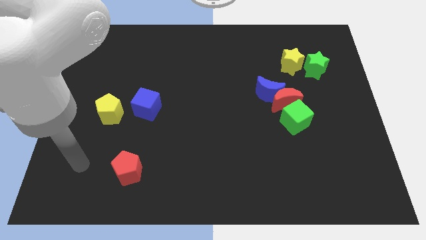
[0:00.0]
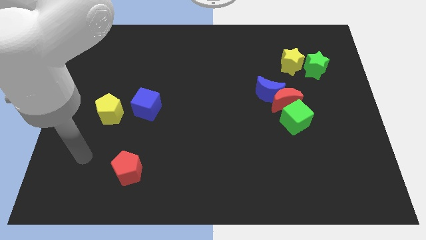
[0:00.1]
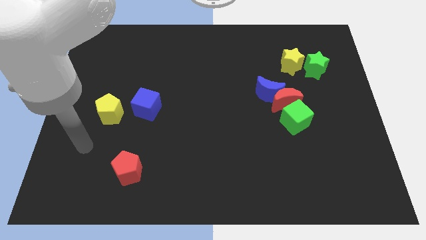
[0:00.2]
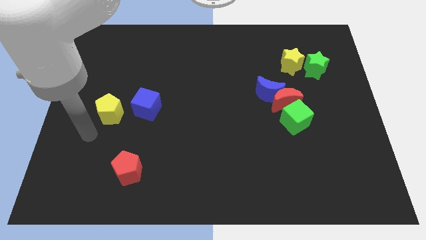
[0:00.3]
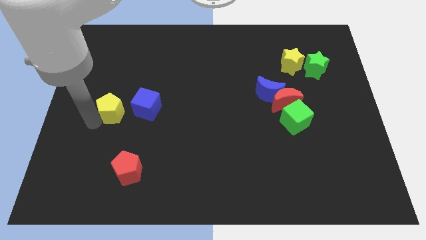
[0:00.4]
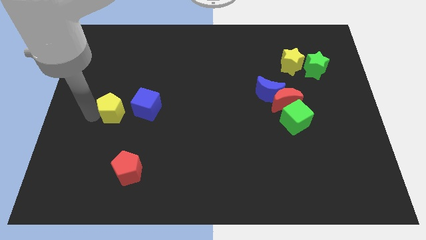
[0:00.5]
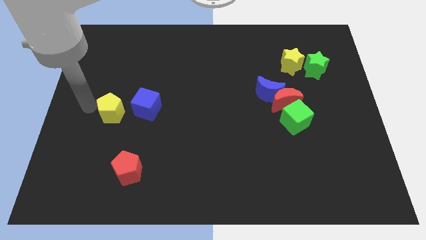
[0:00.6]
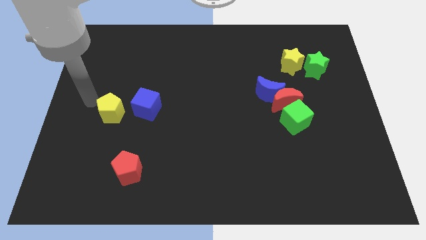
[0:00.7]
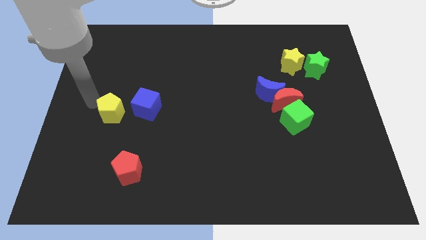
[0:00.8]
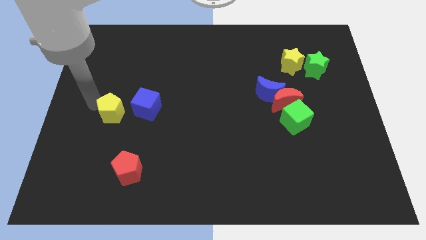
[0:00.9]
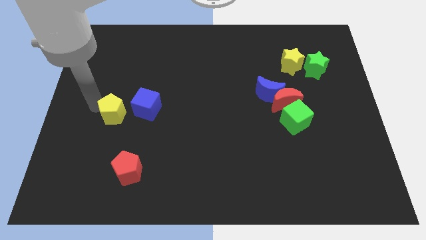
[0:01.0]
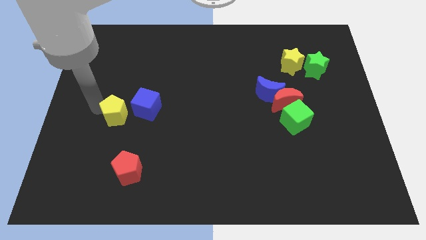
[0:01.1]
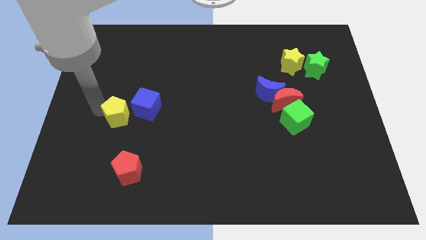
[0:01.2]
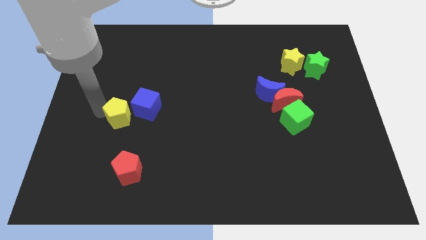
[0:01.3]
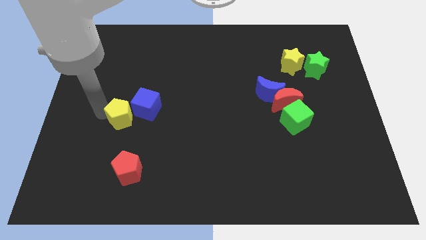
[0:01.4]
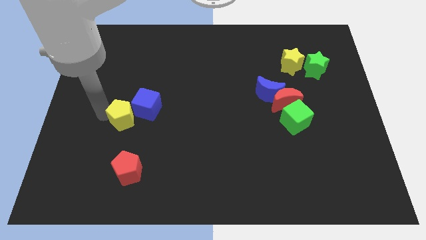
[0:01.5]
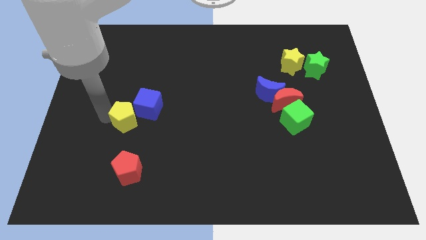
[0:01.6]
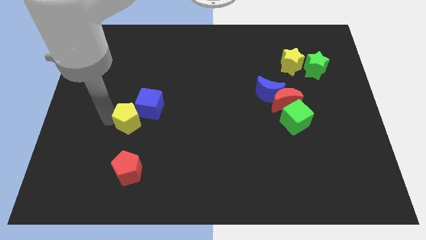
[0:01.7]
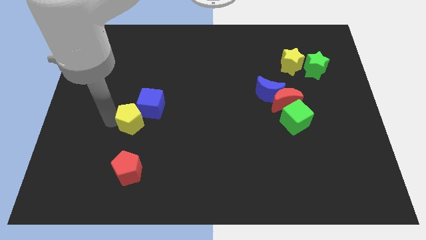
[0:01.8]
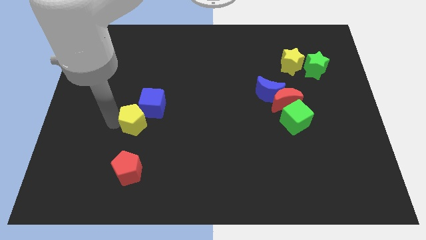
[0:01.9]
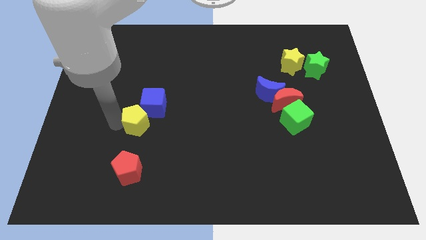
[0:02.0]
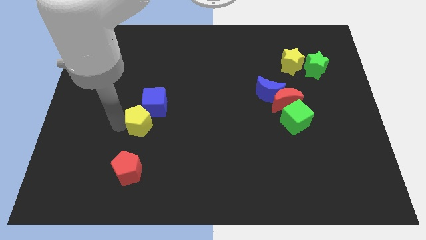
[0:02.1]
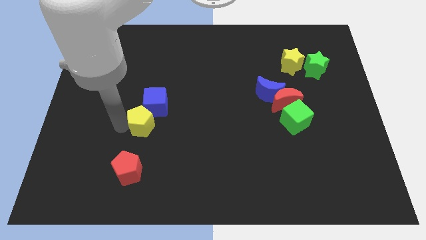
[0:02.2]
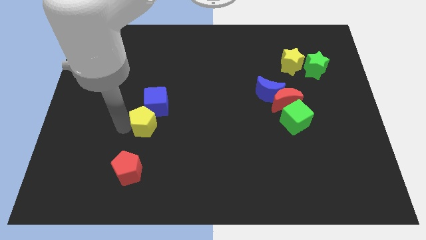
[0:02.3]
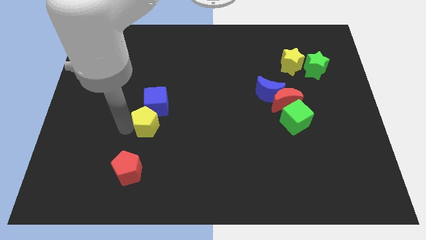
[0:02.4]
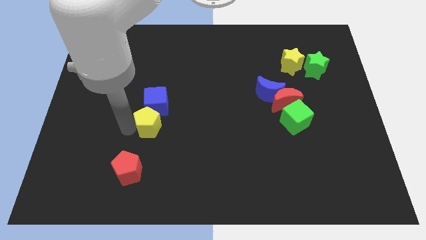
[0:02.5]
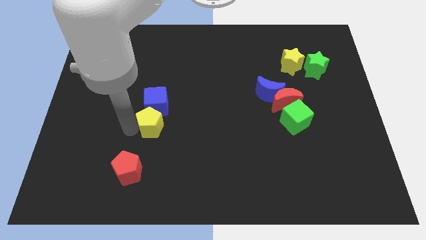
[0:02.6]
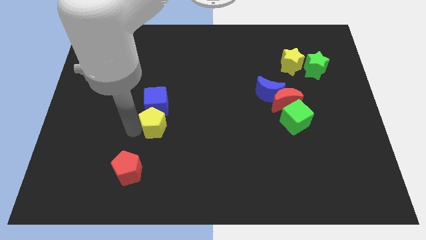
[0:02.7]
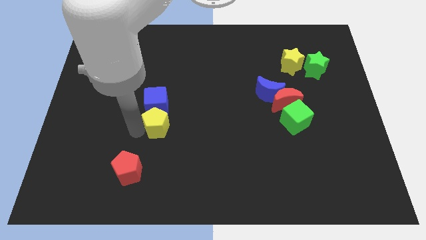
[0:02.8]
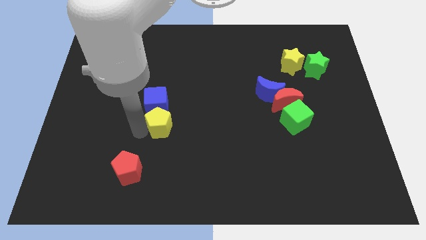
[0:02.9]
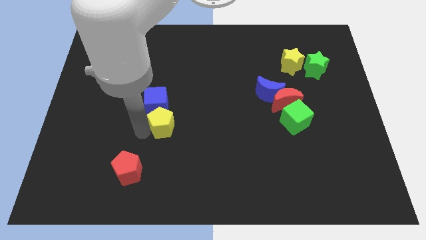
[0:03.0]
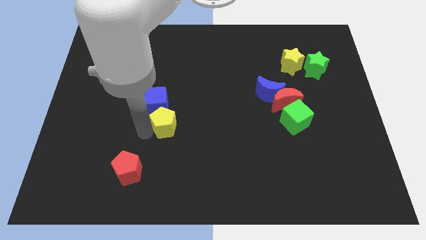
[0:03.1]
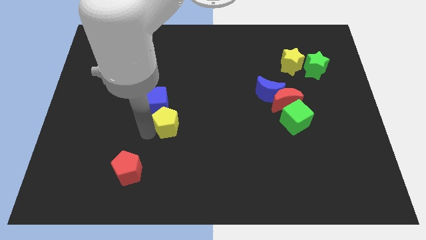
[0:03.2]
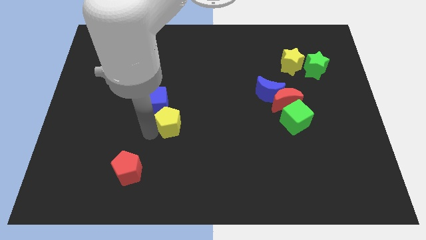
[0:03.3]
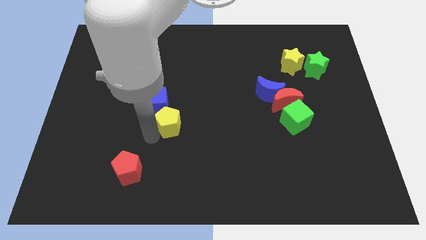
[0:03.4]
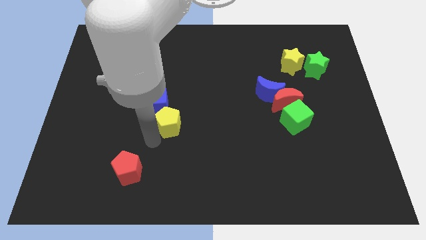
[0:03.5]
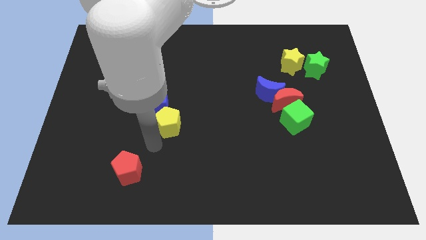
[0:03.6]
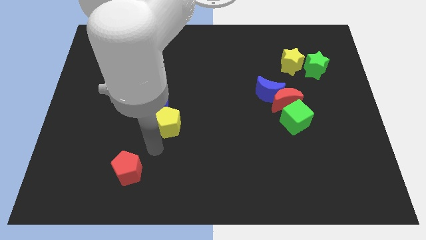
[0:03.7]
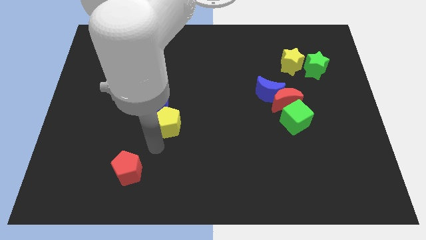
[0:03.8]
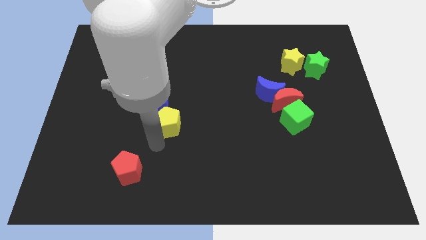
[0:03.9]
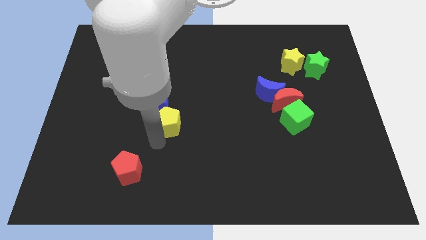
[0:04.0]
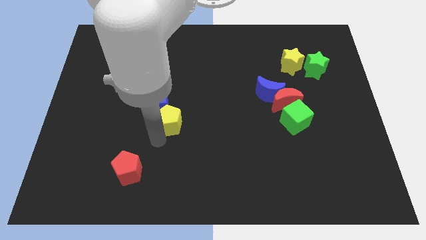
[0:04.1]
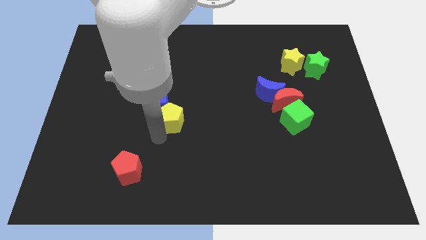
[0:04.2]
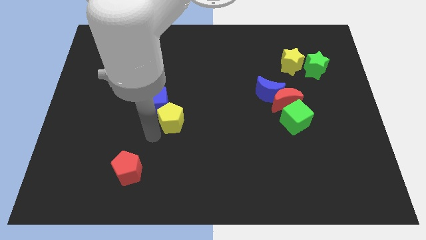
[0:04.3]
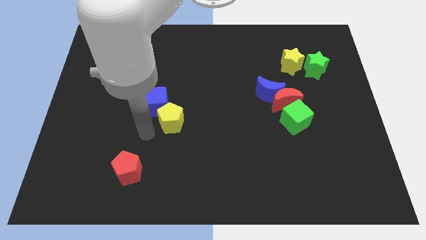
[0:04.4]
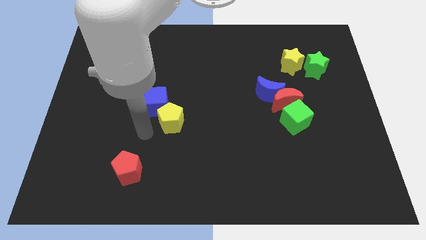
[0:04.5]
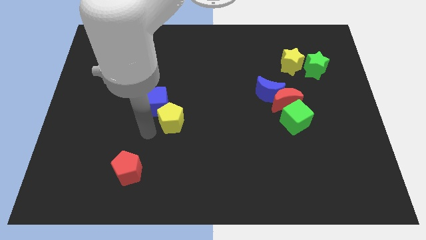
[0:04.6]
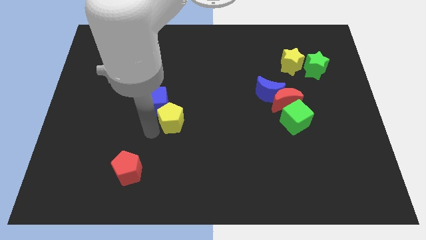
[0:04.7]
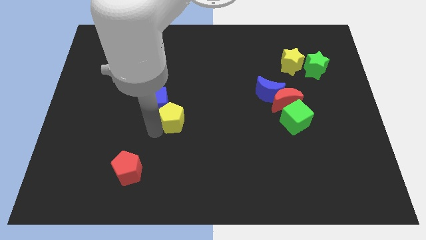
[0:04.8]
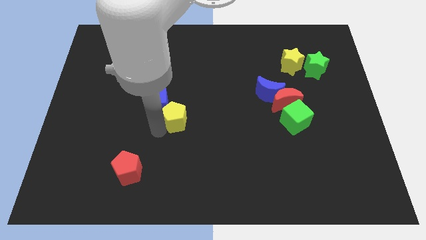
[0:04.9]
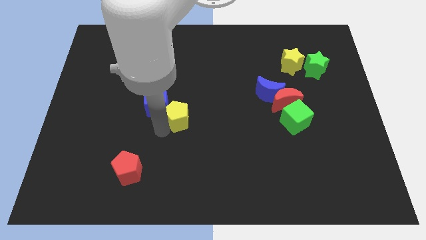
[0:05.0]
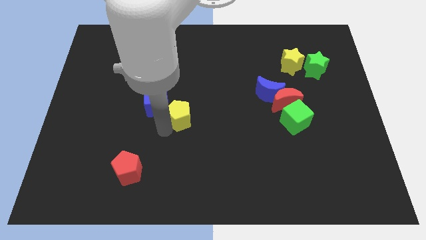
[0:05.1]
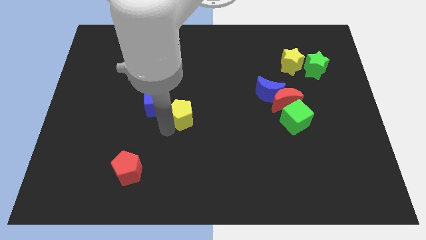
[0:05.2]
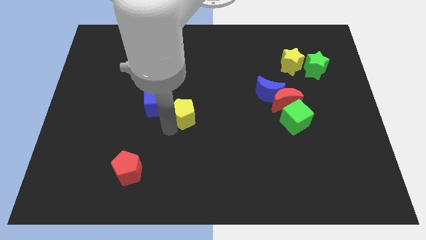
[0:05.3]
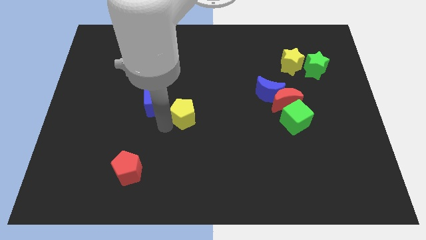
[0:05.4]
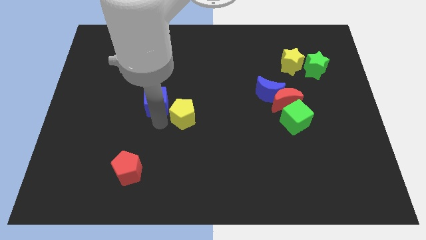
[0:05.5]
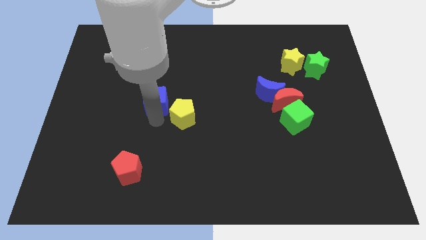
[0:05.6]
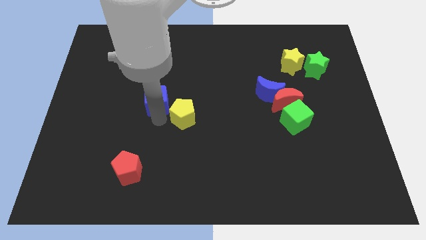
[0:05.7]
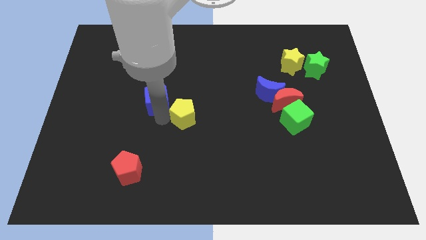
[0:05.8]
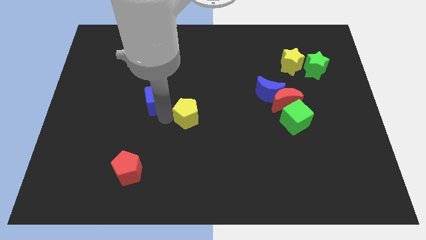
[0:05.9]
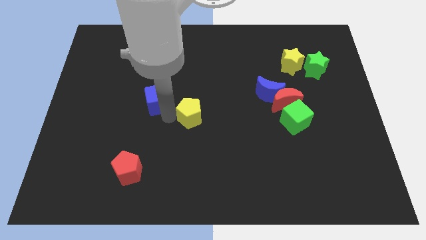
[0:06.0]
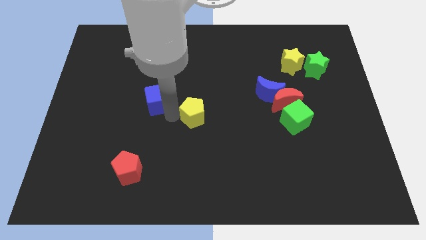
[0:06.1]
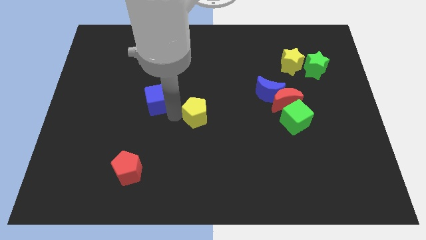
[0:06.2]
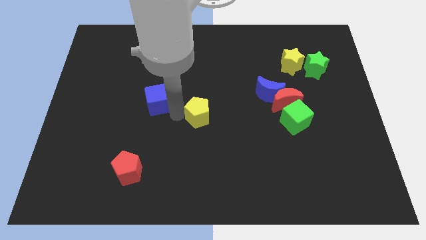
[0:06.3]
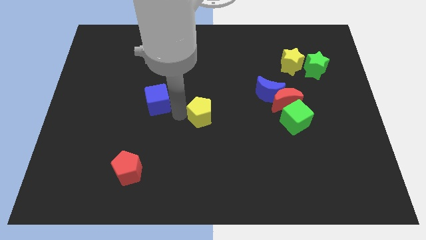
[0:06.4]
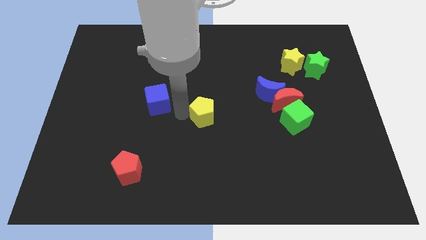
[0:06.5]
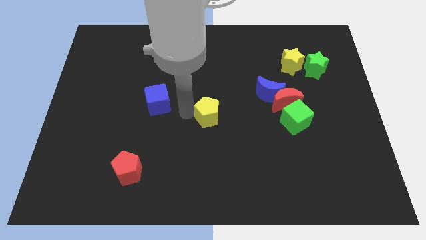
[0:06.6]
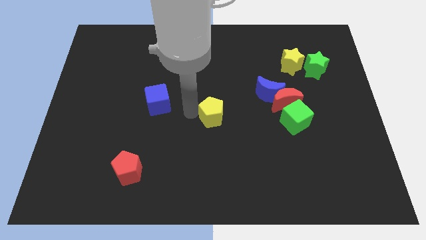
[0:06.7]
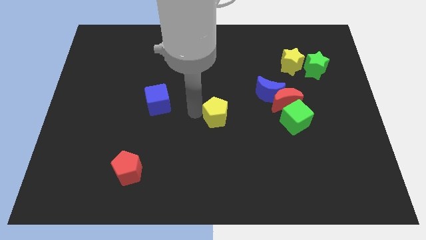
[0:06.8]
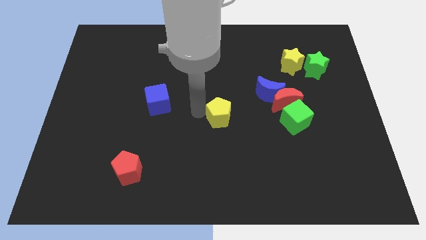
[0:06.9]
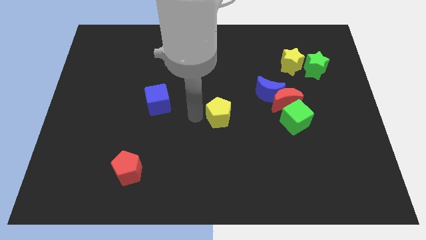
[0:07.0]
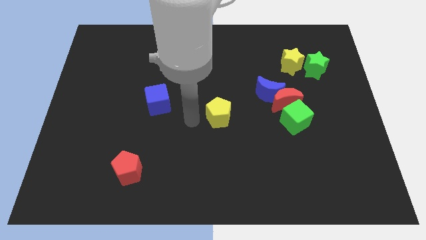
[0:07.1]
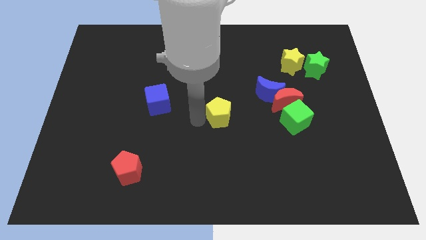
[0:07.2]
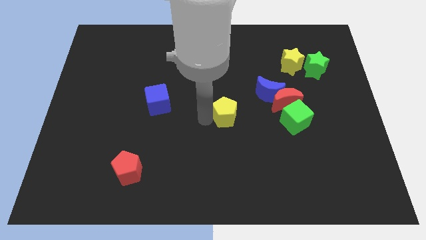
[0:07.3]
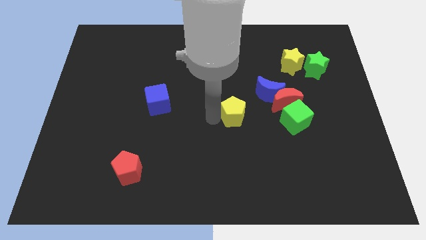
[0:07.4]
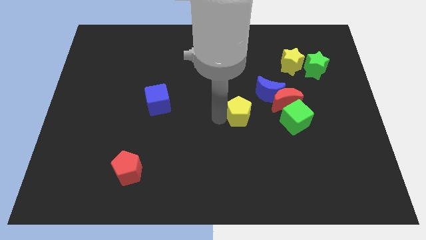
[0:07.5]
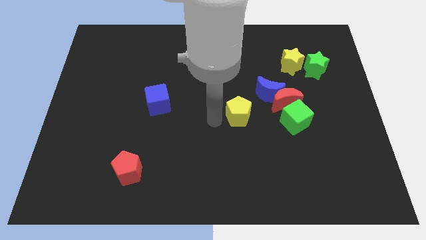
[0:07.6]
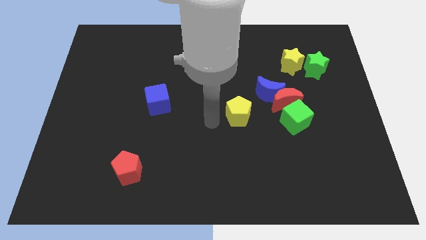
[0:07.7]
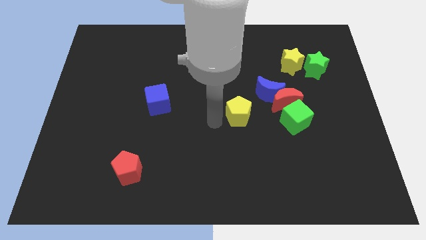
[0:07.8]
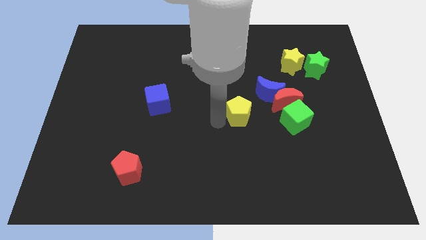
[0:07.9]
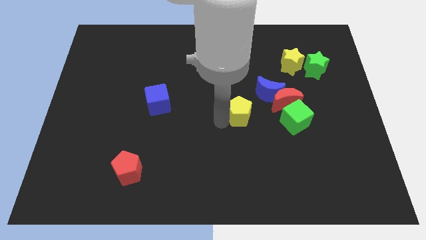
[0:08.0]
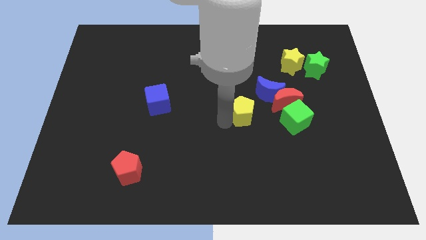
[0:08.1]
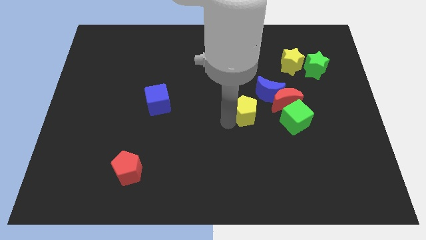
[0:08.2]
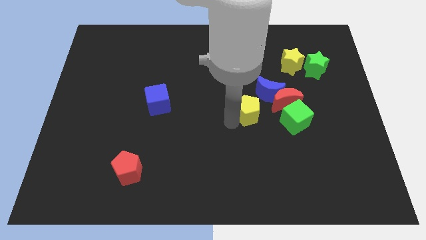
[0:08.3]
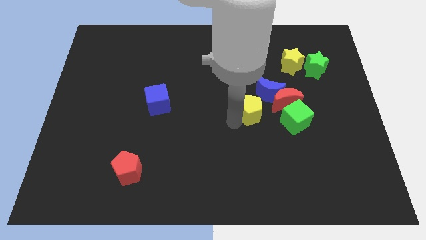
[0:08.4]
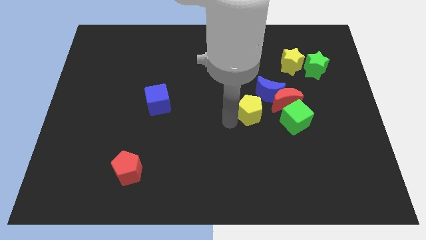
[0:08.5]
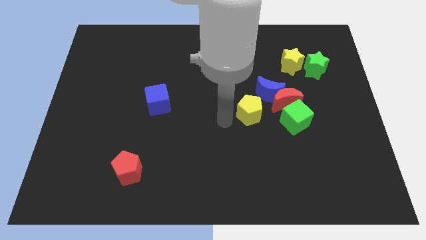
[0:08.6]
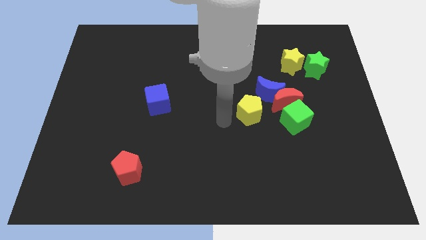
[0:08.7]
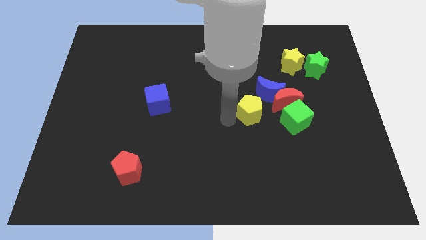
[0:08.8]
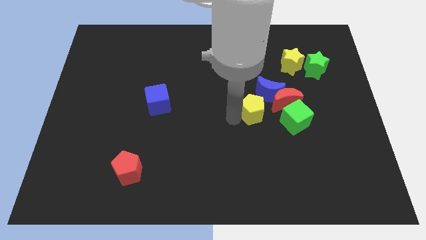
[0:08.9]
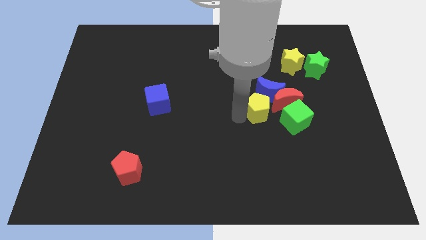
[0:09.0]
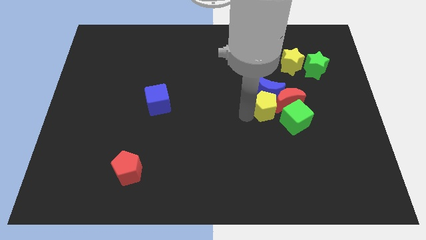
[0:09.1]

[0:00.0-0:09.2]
put the yellow pentagon towards the red moon
